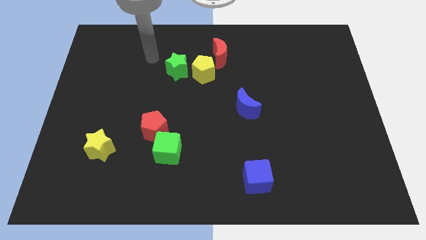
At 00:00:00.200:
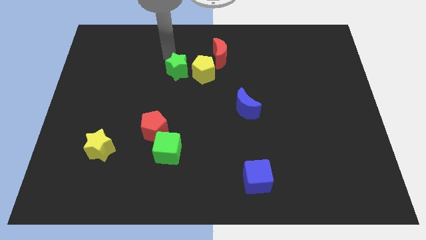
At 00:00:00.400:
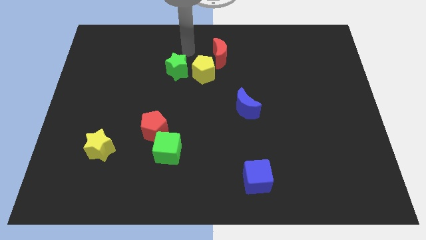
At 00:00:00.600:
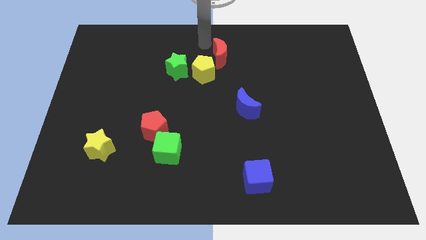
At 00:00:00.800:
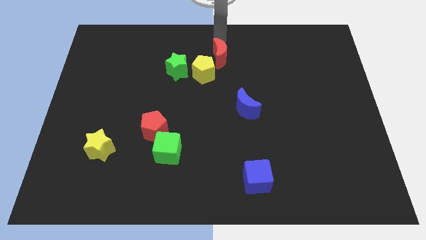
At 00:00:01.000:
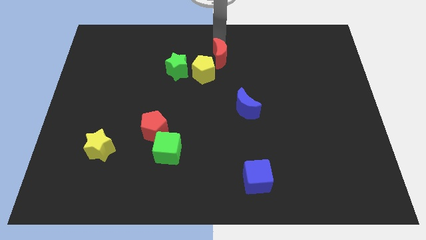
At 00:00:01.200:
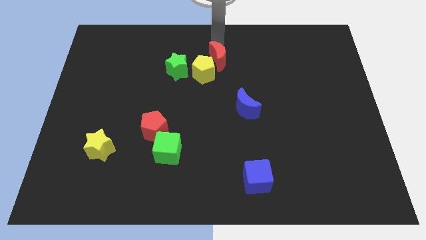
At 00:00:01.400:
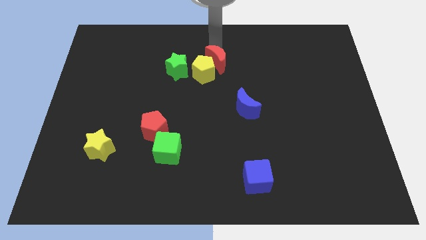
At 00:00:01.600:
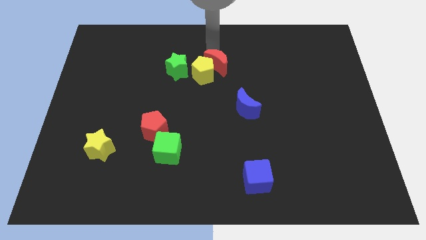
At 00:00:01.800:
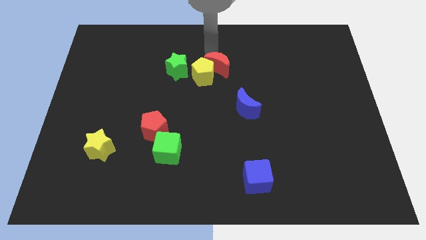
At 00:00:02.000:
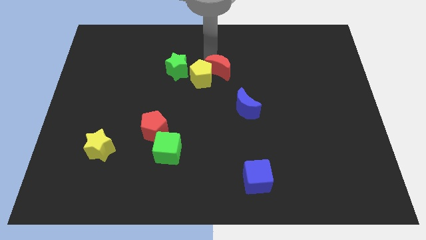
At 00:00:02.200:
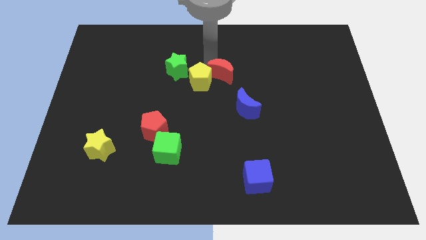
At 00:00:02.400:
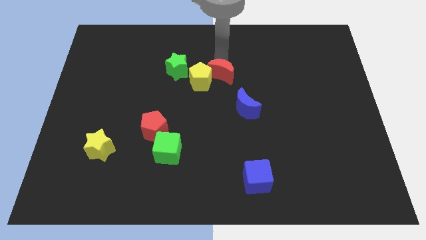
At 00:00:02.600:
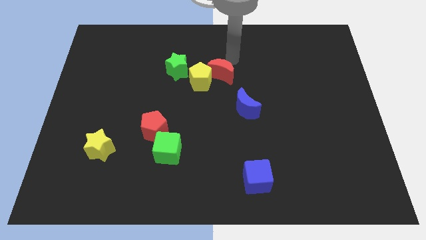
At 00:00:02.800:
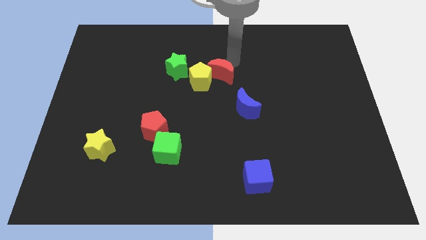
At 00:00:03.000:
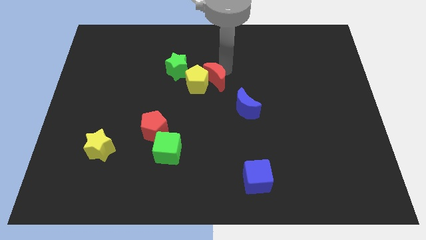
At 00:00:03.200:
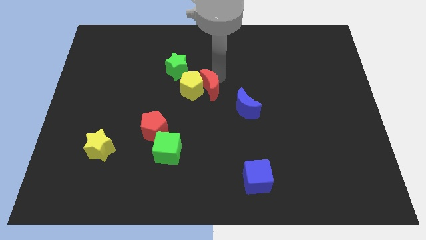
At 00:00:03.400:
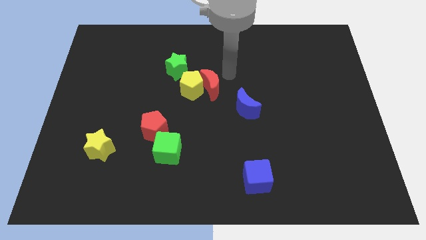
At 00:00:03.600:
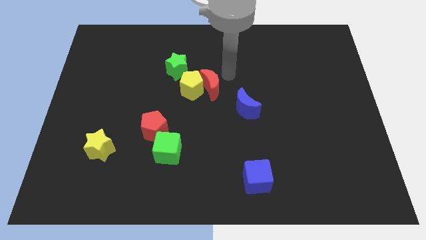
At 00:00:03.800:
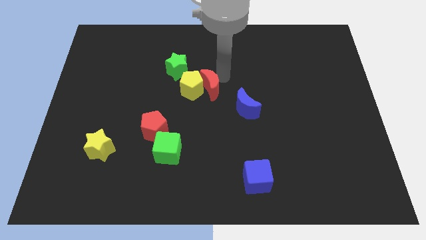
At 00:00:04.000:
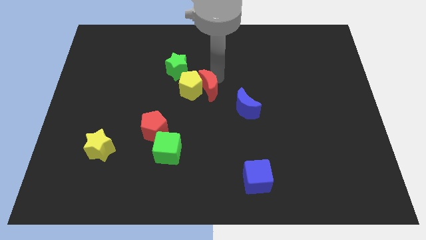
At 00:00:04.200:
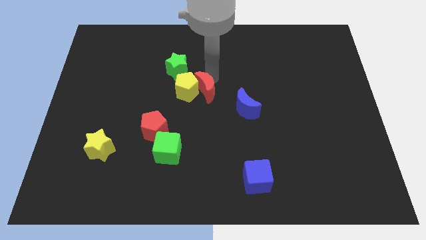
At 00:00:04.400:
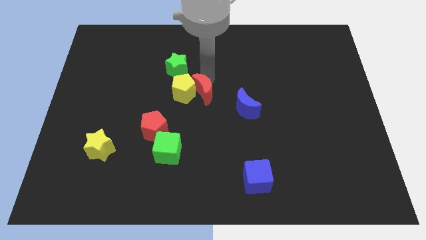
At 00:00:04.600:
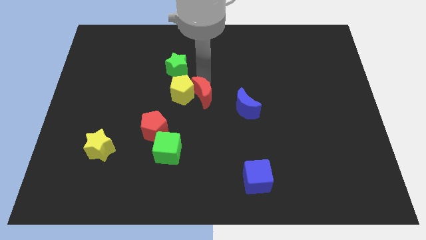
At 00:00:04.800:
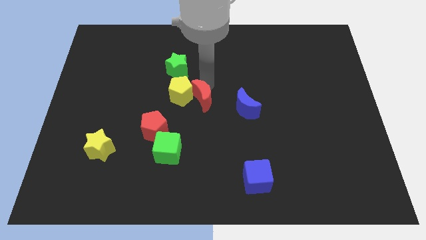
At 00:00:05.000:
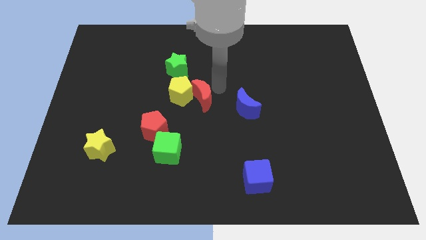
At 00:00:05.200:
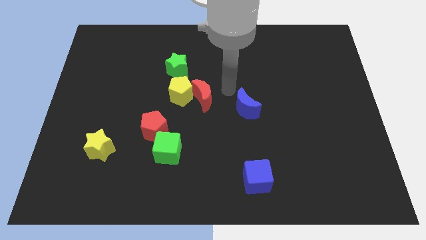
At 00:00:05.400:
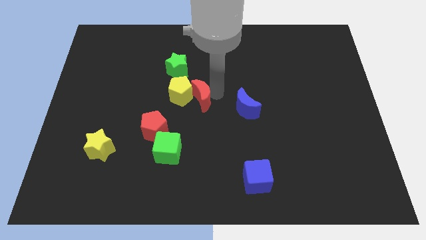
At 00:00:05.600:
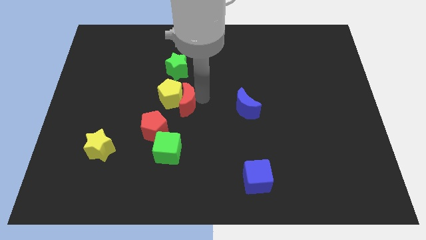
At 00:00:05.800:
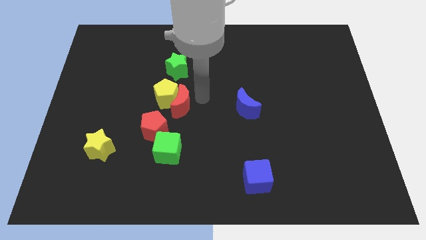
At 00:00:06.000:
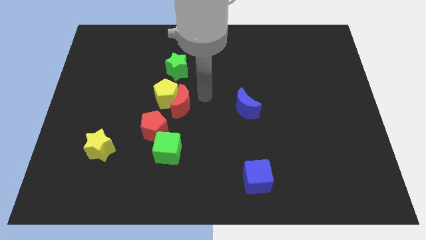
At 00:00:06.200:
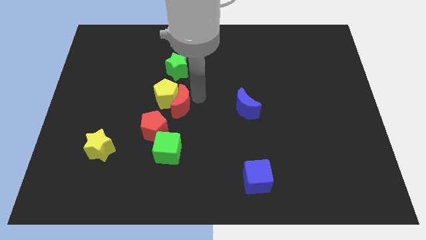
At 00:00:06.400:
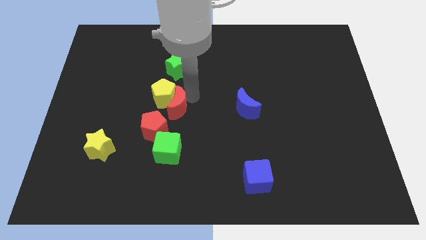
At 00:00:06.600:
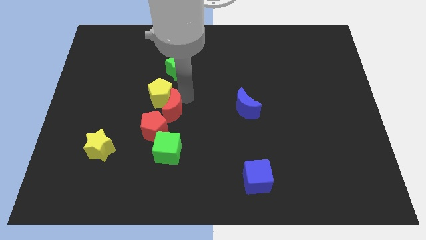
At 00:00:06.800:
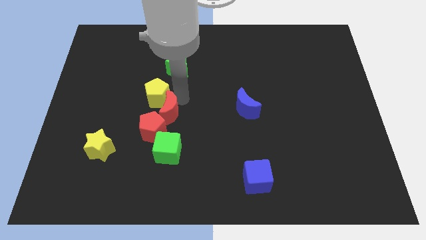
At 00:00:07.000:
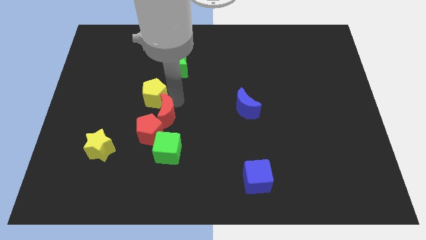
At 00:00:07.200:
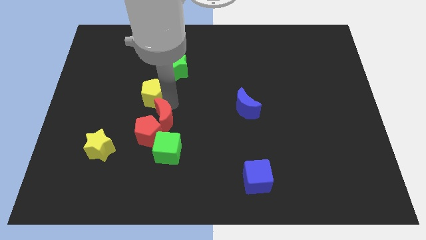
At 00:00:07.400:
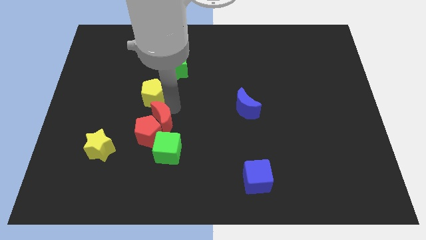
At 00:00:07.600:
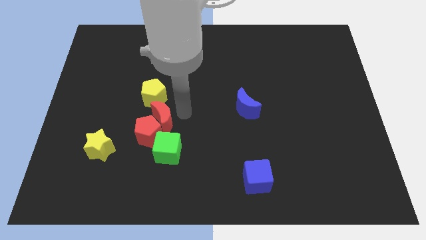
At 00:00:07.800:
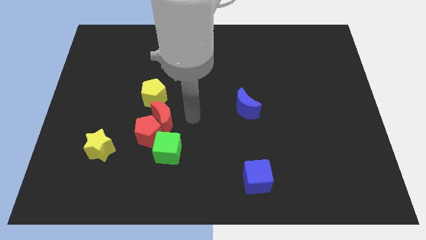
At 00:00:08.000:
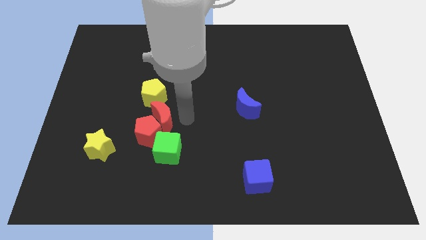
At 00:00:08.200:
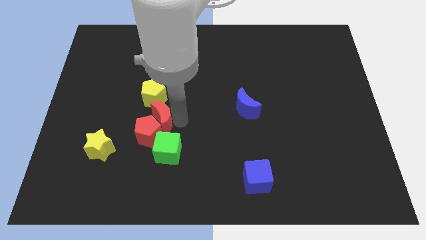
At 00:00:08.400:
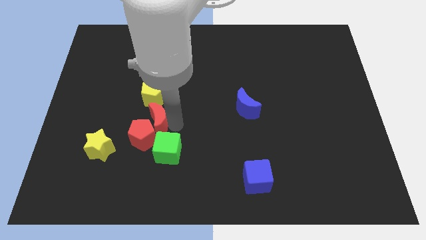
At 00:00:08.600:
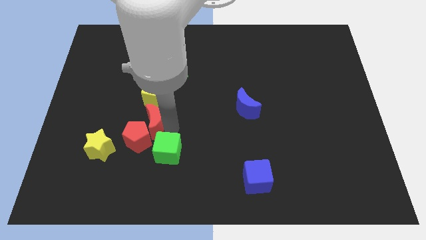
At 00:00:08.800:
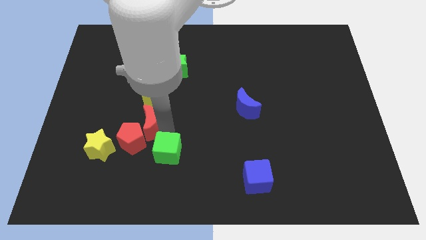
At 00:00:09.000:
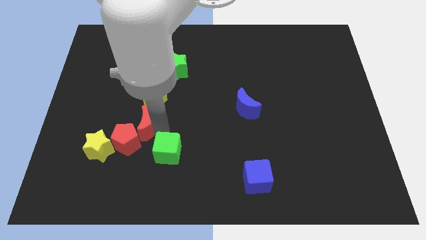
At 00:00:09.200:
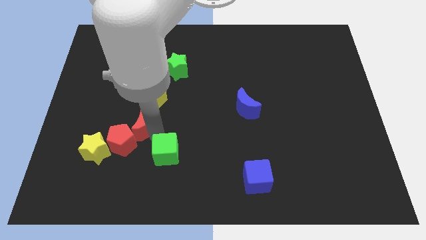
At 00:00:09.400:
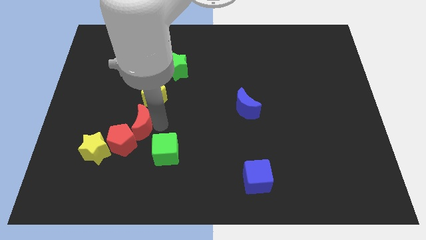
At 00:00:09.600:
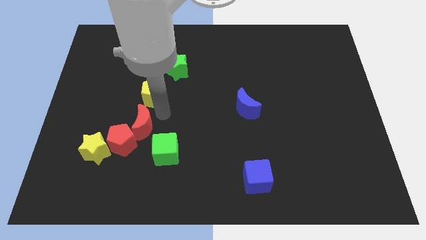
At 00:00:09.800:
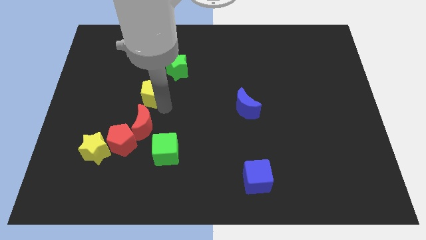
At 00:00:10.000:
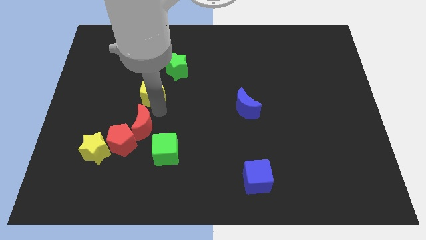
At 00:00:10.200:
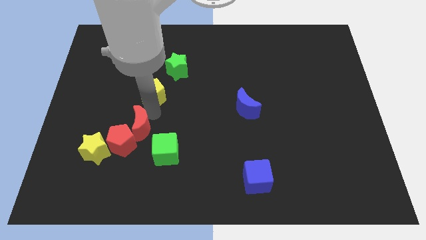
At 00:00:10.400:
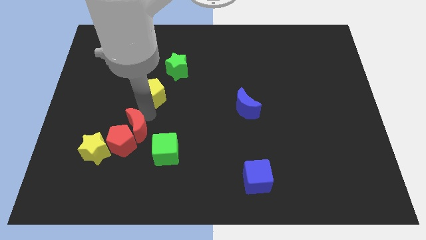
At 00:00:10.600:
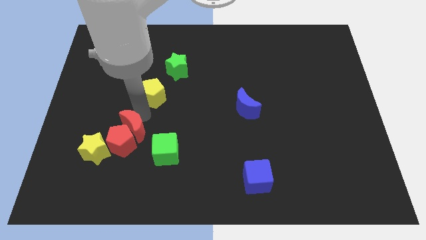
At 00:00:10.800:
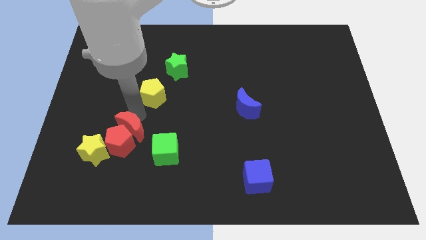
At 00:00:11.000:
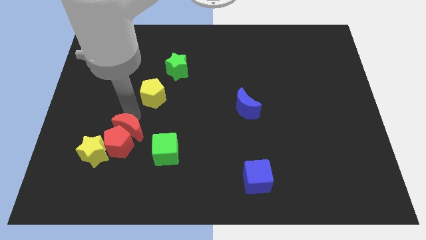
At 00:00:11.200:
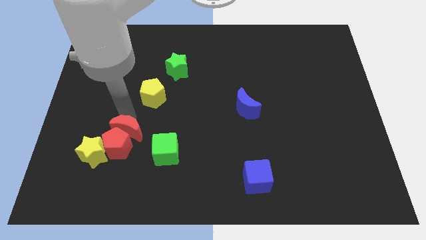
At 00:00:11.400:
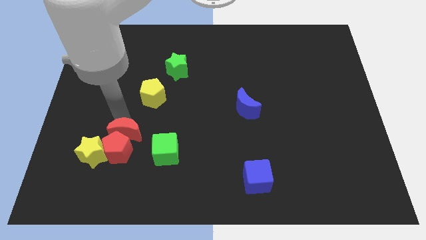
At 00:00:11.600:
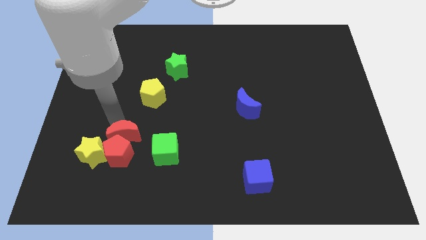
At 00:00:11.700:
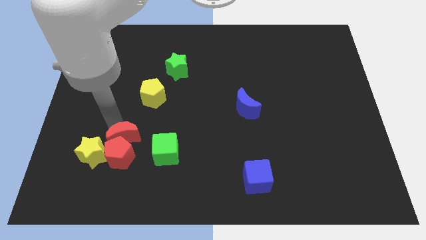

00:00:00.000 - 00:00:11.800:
put the red moon right of the yellow star
